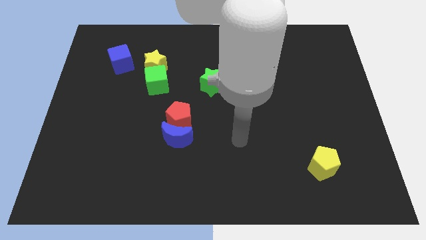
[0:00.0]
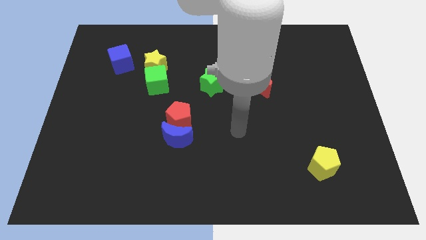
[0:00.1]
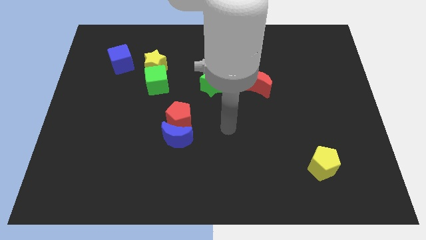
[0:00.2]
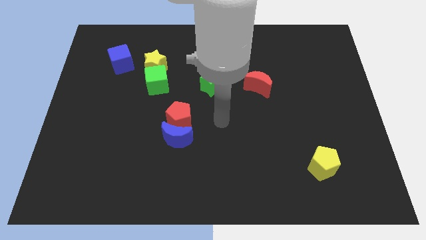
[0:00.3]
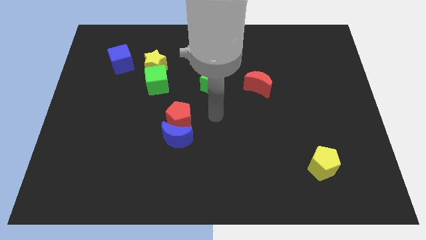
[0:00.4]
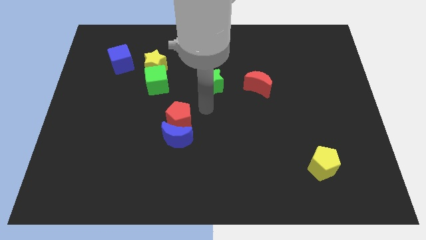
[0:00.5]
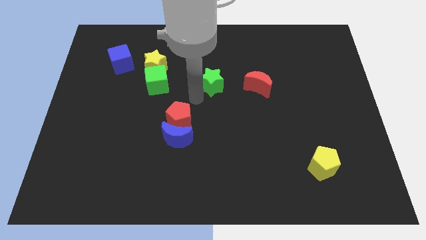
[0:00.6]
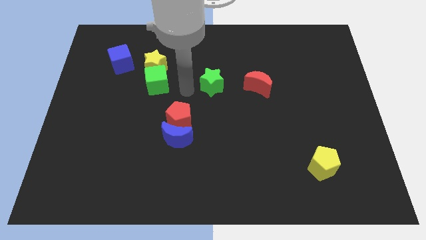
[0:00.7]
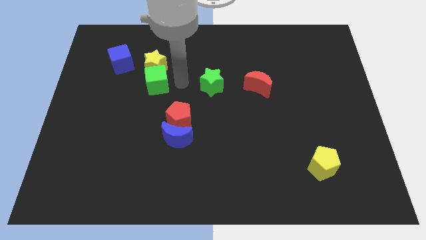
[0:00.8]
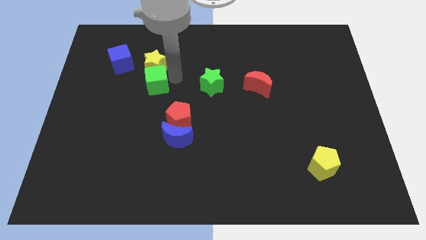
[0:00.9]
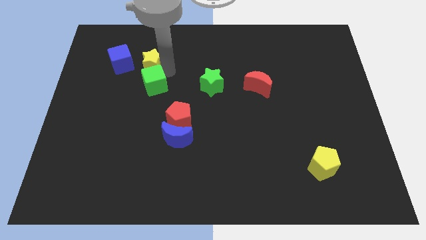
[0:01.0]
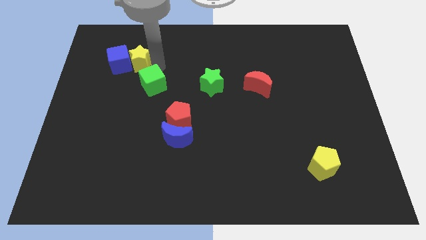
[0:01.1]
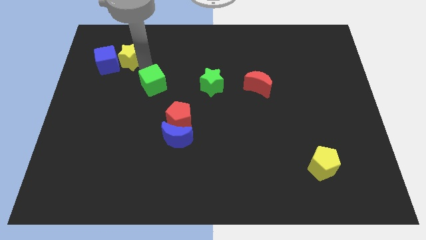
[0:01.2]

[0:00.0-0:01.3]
move the green cube away from the yellow star

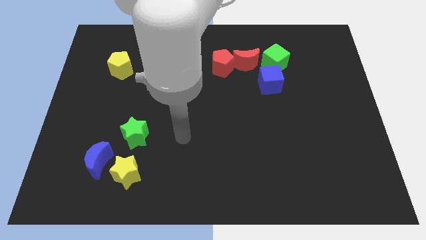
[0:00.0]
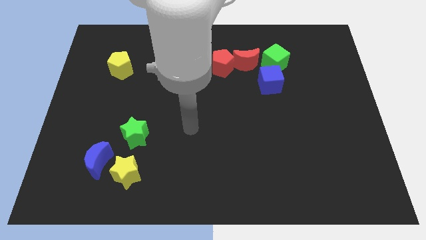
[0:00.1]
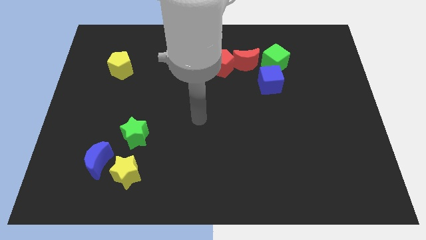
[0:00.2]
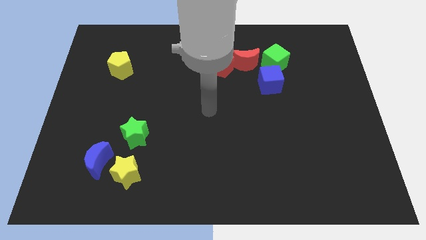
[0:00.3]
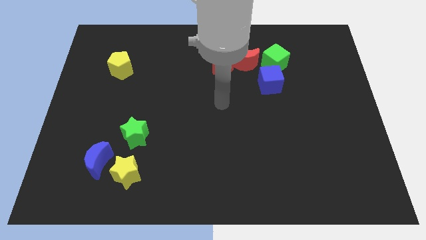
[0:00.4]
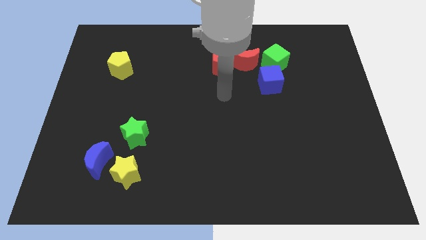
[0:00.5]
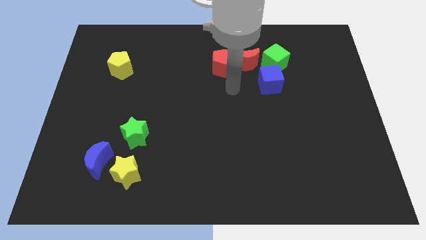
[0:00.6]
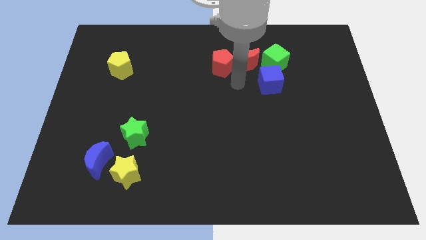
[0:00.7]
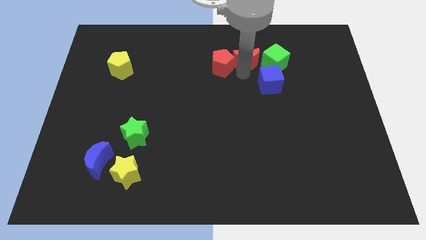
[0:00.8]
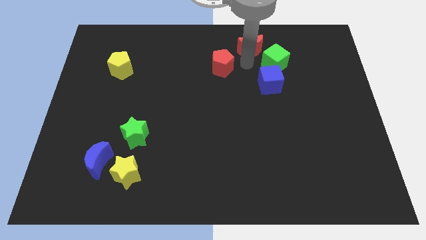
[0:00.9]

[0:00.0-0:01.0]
pull the red pentagon apart from the red moon

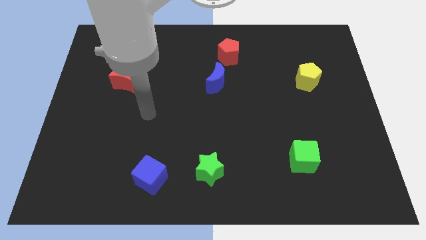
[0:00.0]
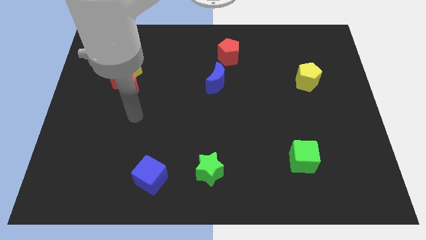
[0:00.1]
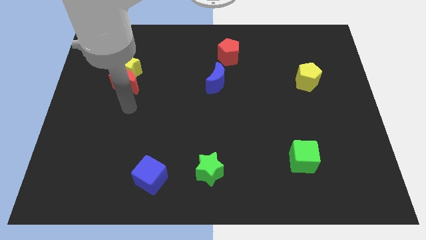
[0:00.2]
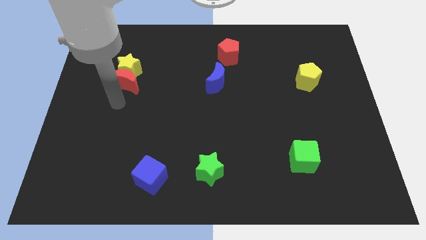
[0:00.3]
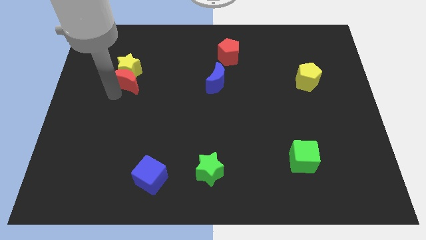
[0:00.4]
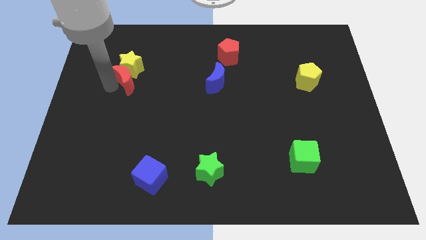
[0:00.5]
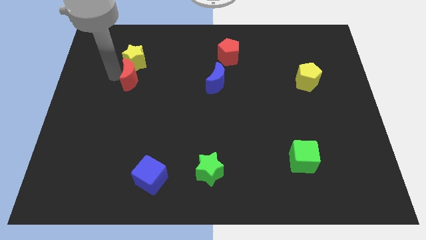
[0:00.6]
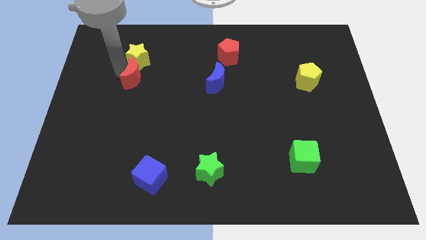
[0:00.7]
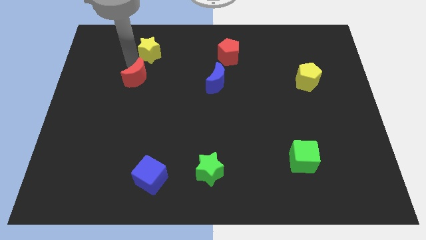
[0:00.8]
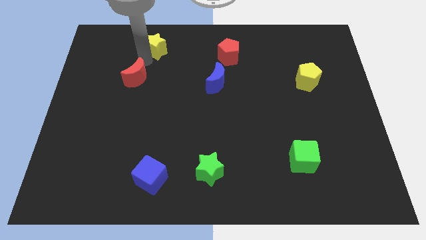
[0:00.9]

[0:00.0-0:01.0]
move the red moon away from the yellow star

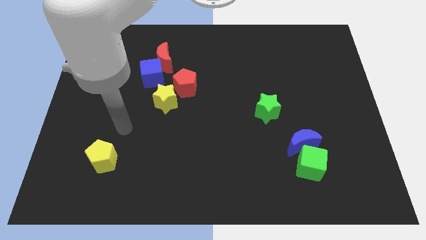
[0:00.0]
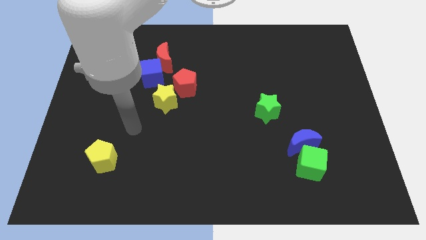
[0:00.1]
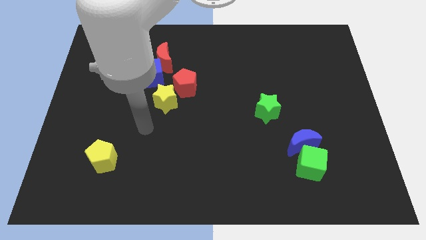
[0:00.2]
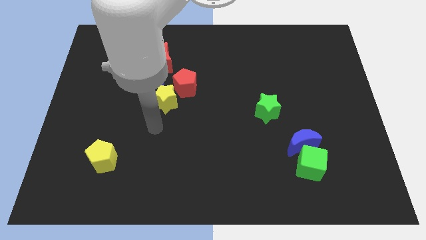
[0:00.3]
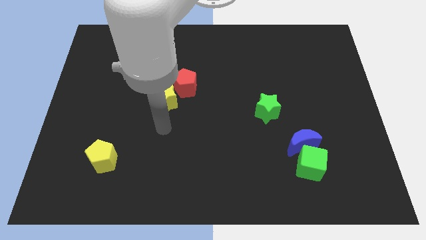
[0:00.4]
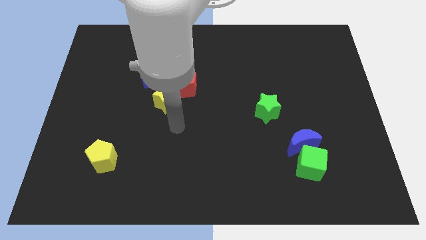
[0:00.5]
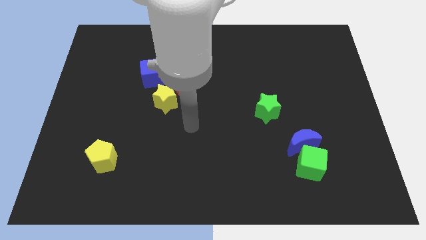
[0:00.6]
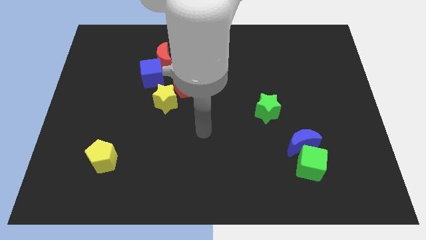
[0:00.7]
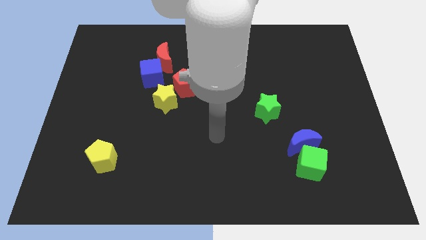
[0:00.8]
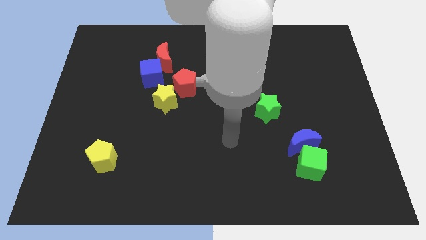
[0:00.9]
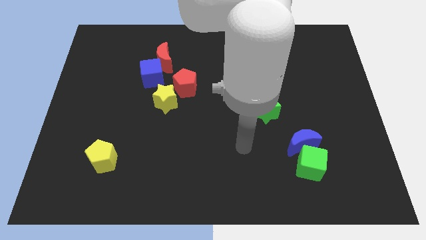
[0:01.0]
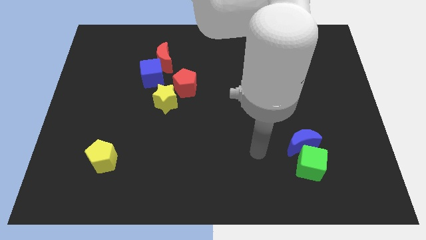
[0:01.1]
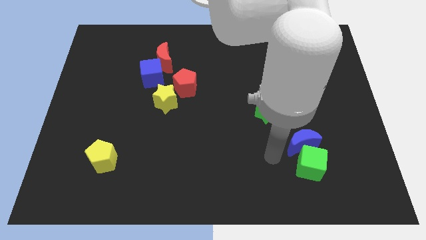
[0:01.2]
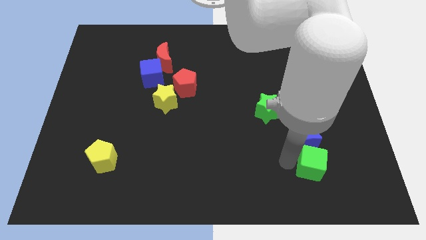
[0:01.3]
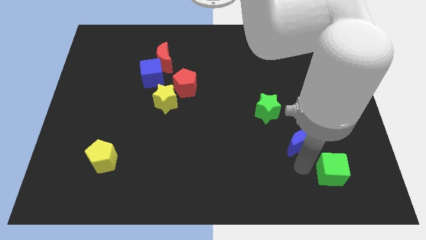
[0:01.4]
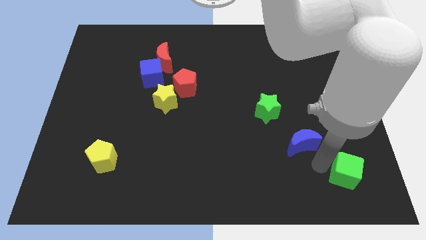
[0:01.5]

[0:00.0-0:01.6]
pull the blue moon apart from the green cube

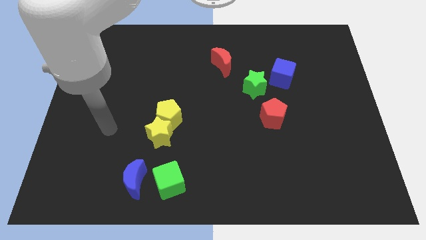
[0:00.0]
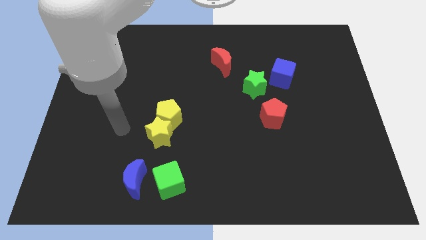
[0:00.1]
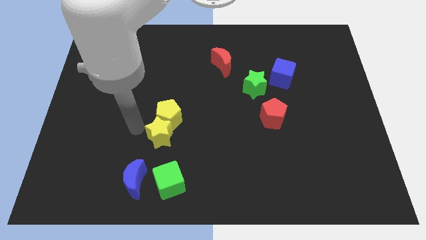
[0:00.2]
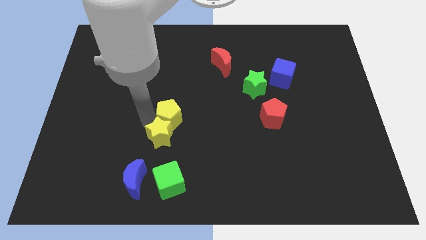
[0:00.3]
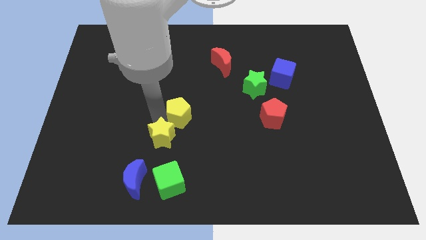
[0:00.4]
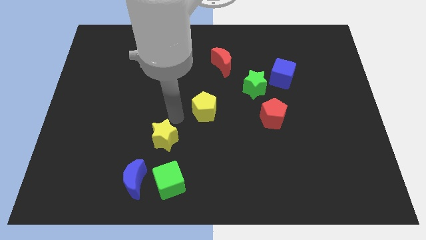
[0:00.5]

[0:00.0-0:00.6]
move the yellow star away from the yellow pentagon

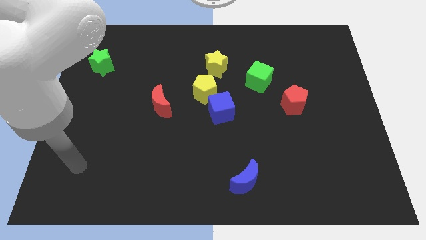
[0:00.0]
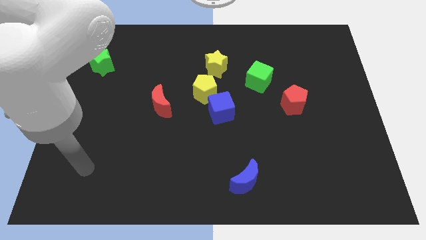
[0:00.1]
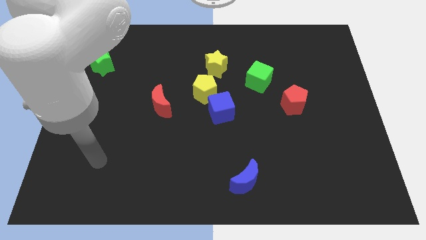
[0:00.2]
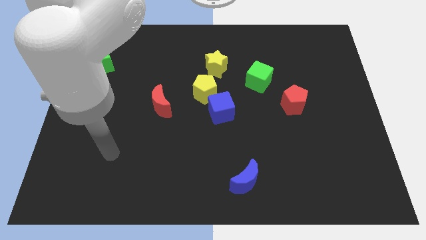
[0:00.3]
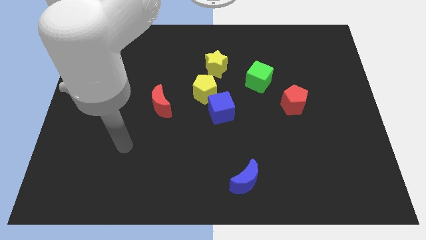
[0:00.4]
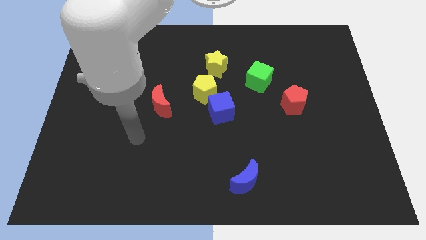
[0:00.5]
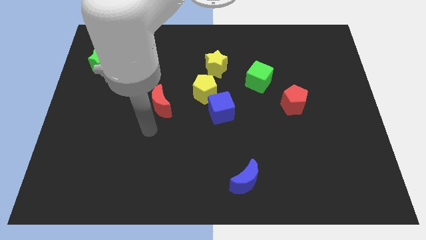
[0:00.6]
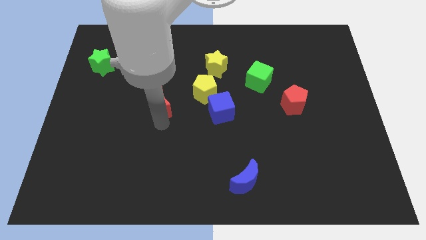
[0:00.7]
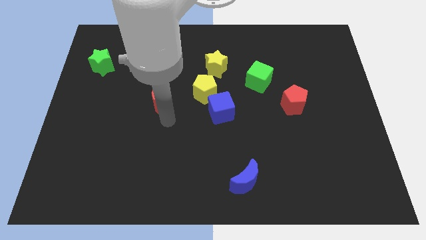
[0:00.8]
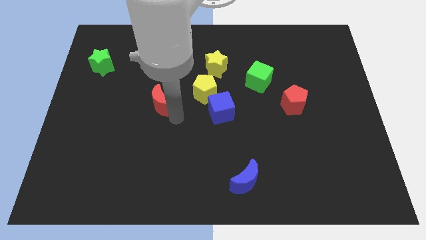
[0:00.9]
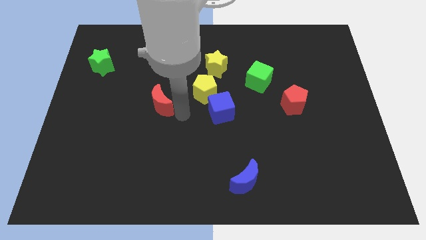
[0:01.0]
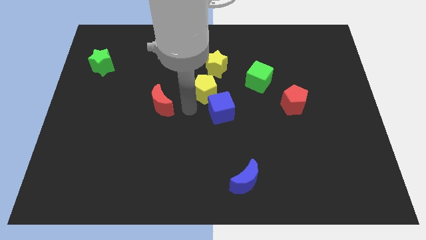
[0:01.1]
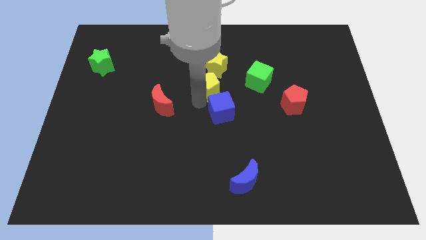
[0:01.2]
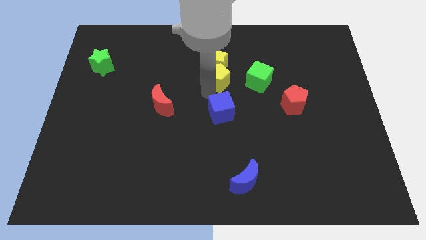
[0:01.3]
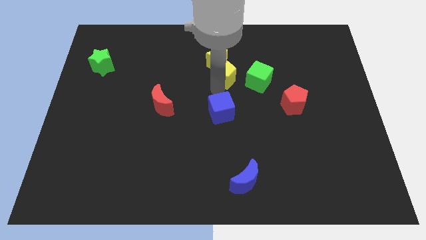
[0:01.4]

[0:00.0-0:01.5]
pull the blue cube apart from the yellow pentagon

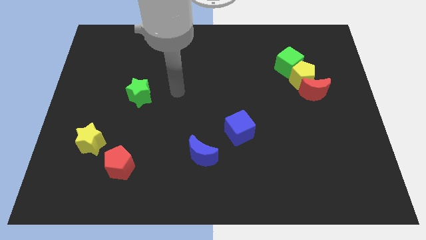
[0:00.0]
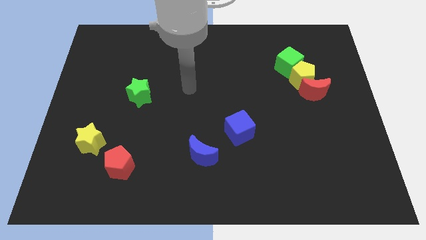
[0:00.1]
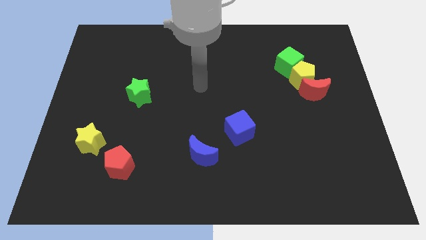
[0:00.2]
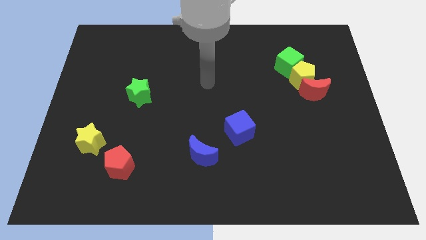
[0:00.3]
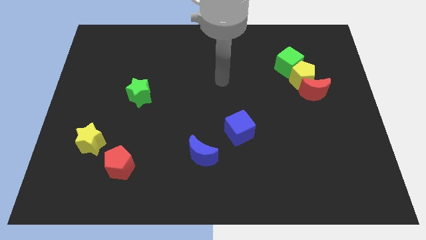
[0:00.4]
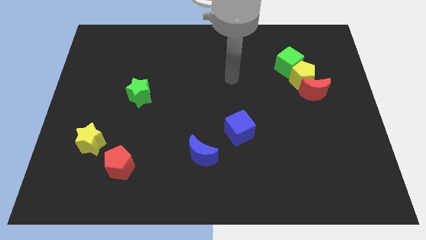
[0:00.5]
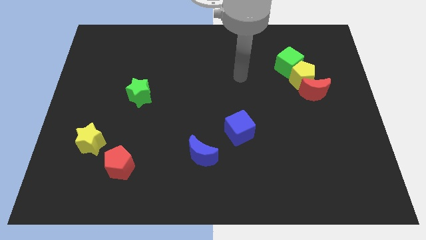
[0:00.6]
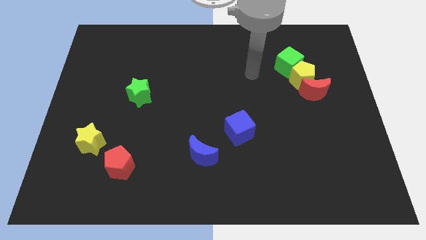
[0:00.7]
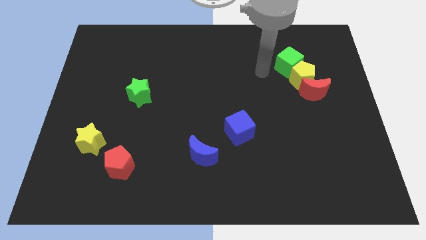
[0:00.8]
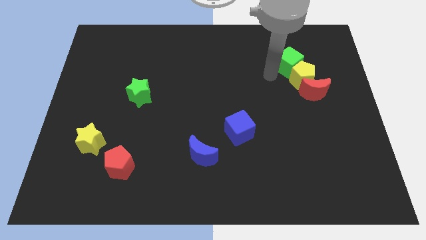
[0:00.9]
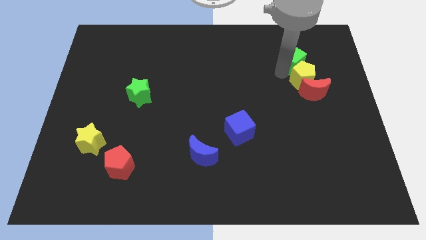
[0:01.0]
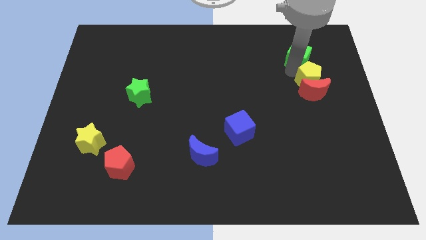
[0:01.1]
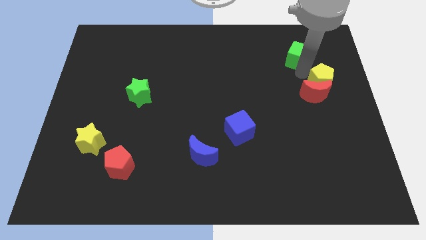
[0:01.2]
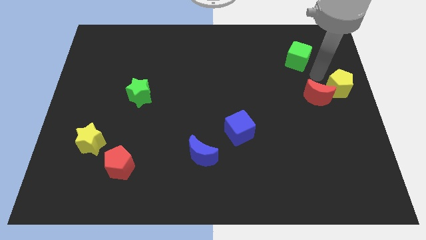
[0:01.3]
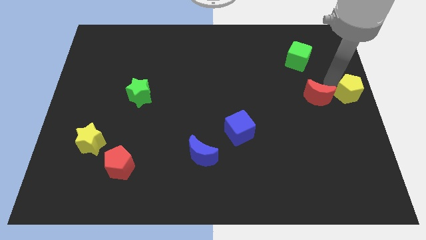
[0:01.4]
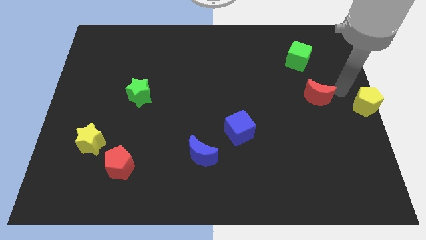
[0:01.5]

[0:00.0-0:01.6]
pull the red moon apart from the yellow pentagon

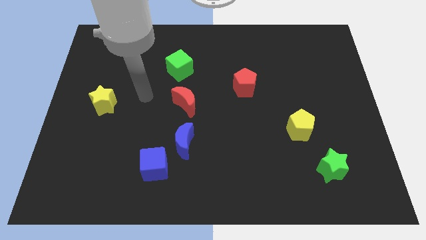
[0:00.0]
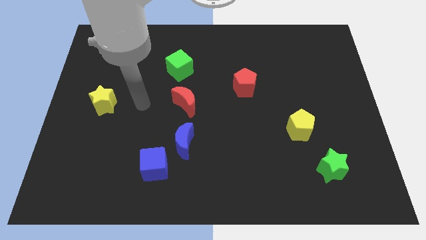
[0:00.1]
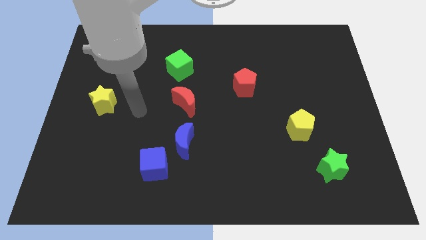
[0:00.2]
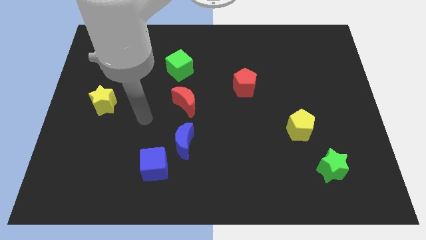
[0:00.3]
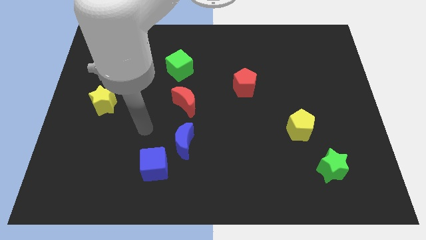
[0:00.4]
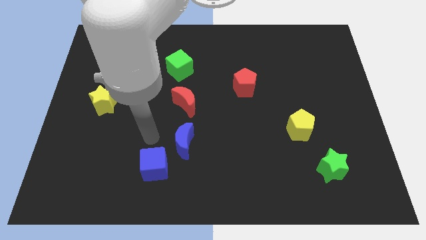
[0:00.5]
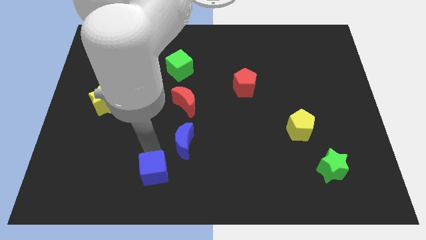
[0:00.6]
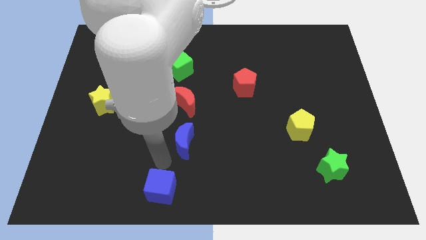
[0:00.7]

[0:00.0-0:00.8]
separate the blue moon from the blue cube
